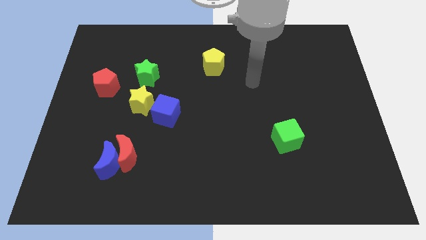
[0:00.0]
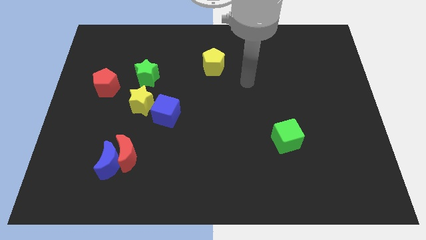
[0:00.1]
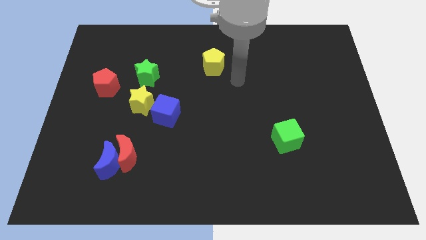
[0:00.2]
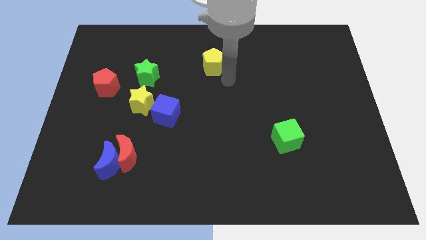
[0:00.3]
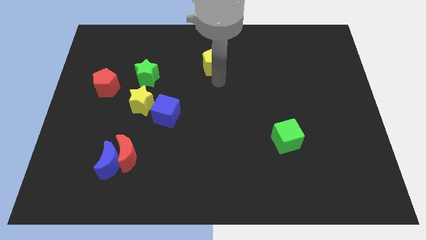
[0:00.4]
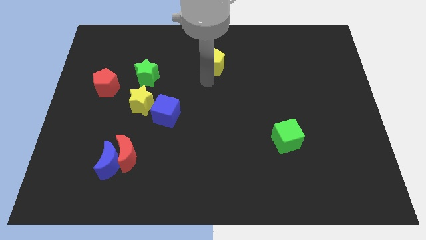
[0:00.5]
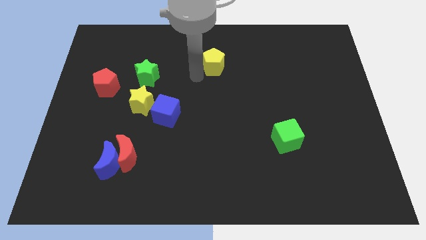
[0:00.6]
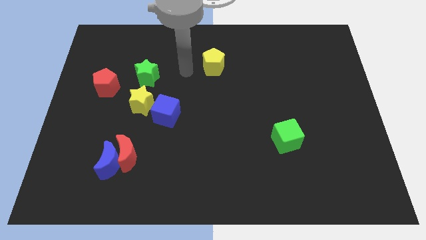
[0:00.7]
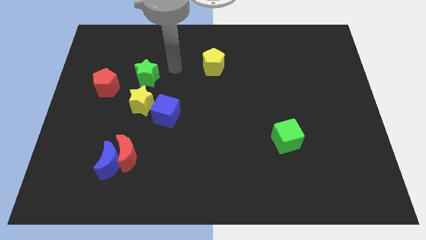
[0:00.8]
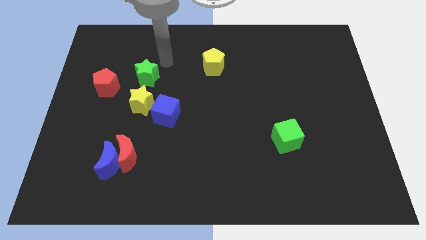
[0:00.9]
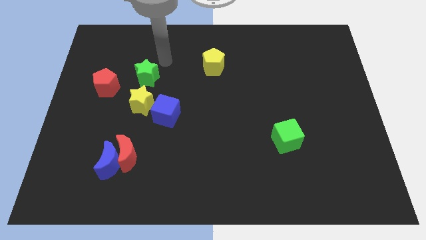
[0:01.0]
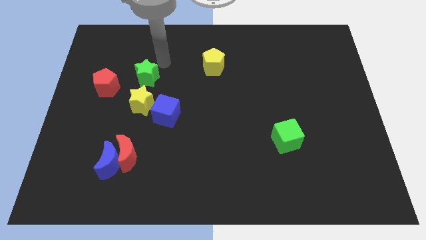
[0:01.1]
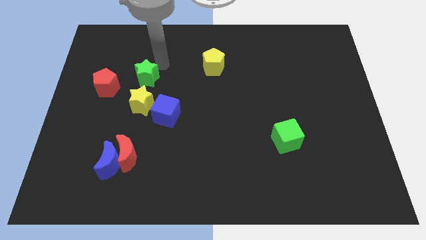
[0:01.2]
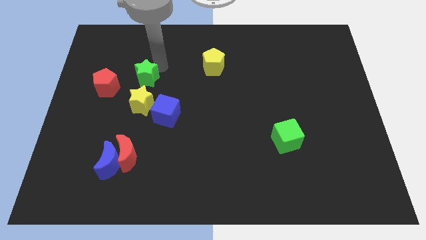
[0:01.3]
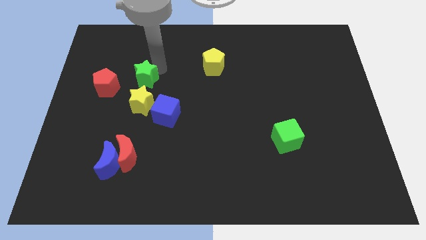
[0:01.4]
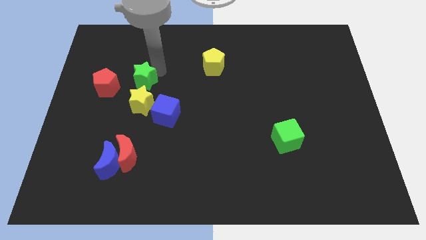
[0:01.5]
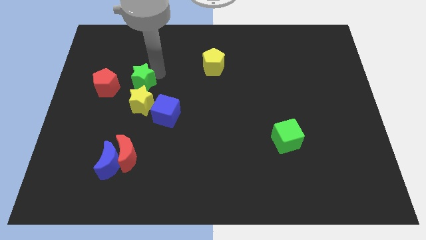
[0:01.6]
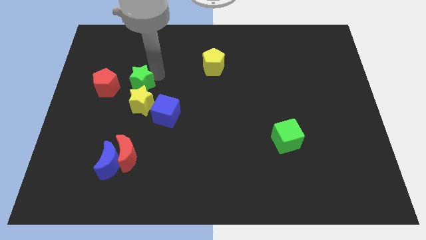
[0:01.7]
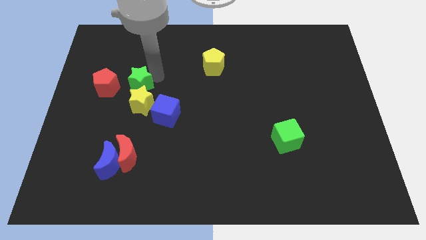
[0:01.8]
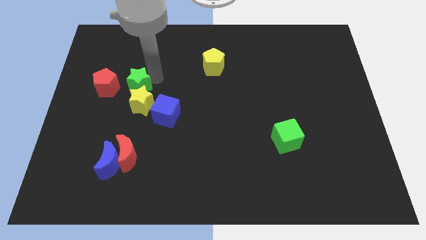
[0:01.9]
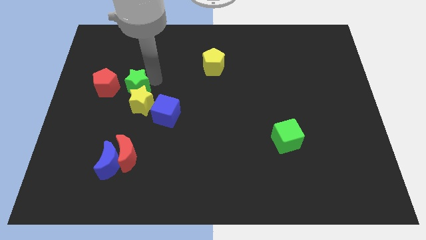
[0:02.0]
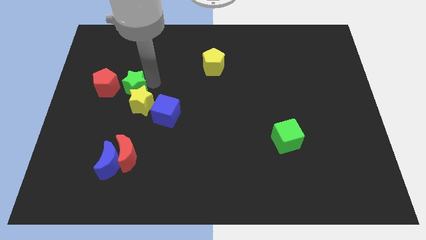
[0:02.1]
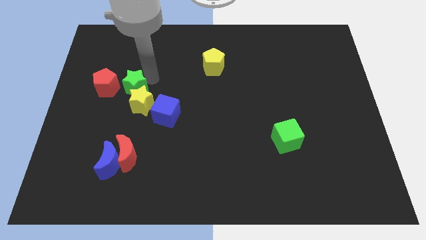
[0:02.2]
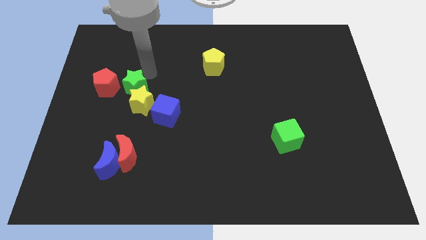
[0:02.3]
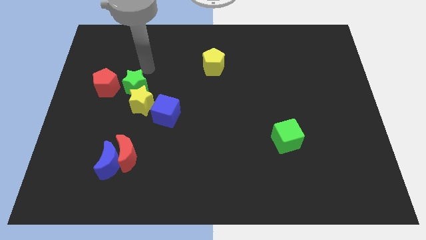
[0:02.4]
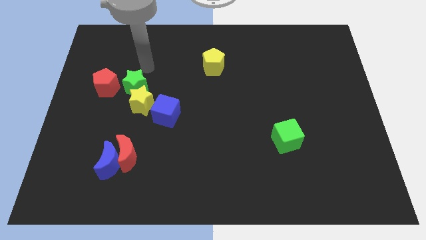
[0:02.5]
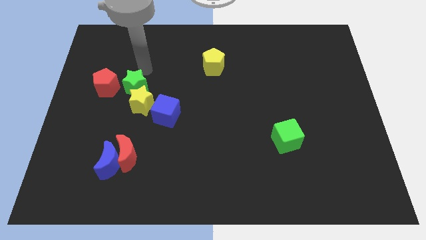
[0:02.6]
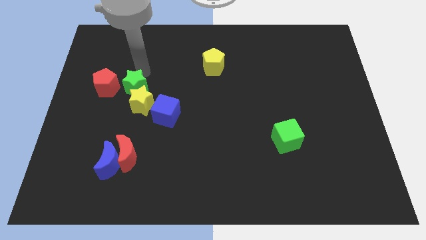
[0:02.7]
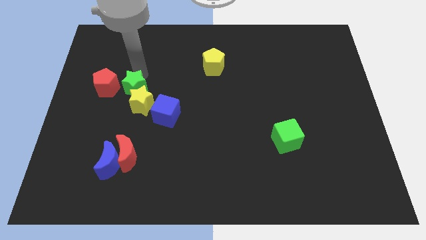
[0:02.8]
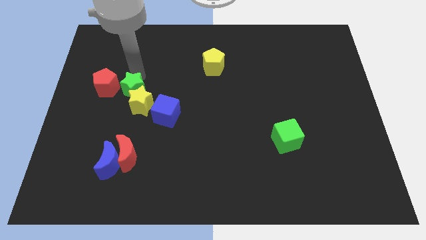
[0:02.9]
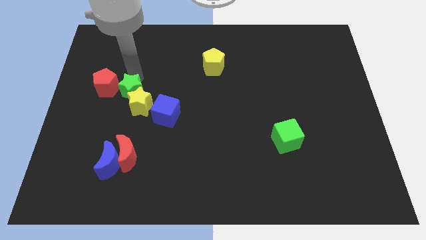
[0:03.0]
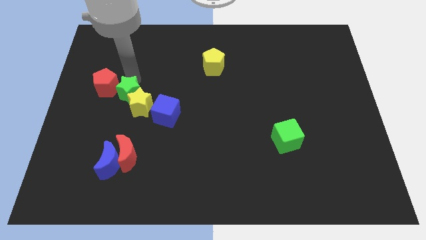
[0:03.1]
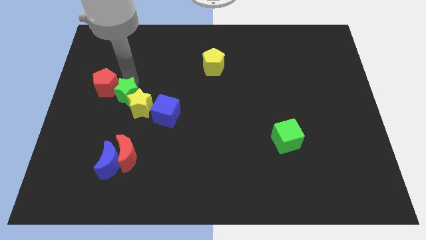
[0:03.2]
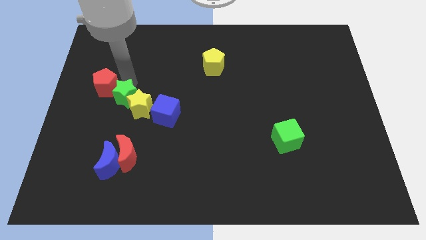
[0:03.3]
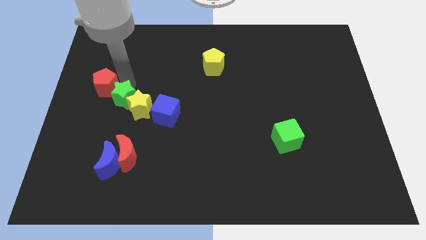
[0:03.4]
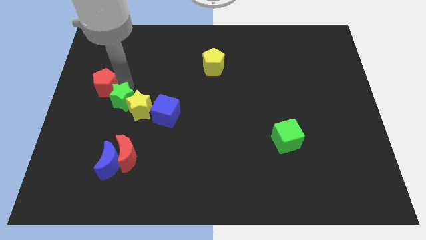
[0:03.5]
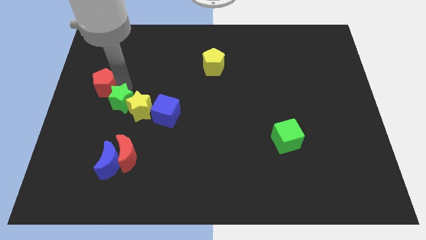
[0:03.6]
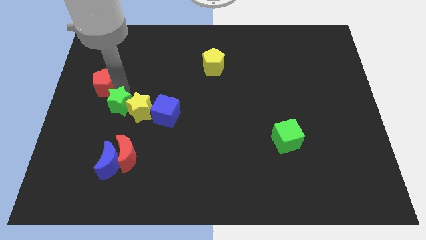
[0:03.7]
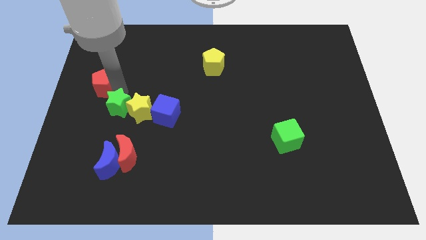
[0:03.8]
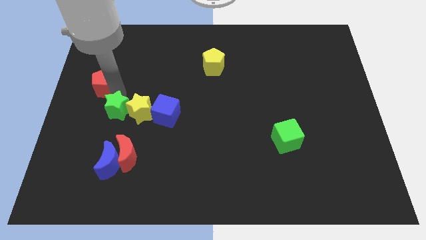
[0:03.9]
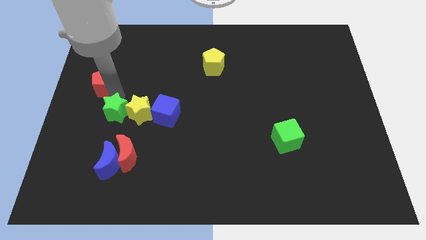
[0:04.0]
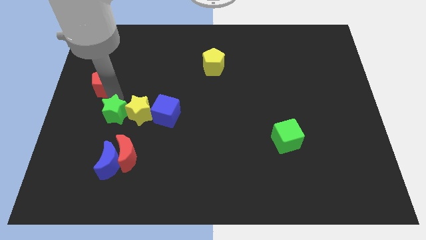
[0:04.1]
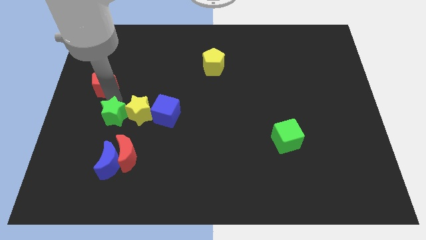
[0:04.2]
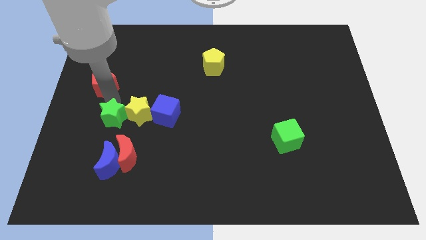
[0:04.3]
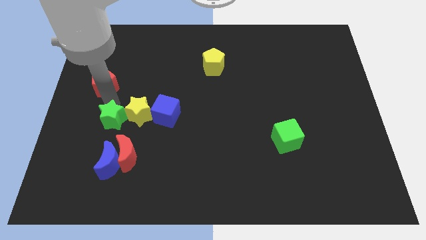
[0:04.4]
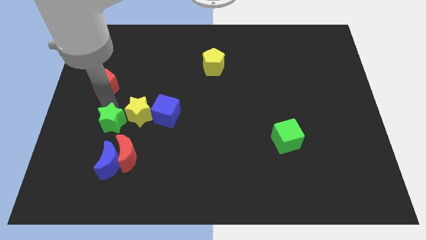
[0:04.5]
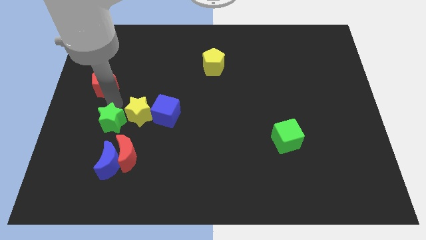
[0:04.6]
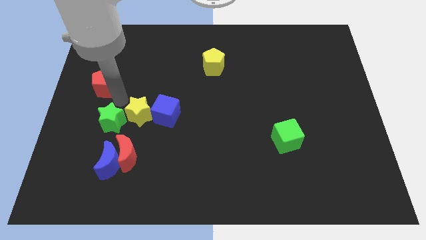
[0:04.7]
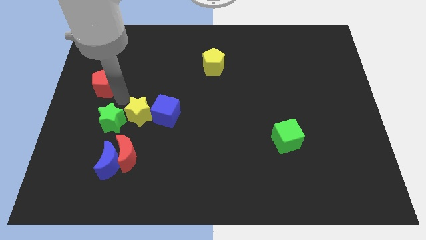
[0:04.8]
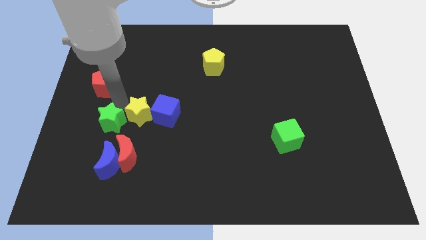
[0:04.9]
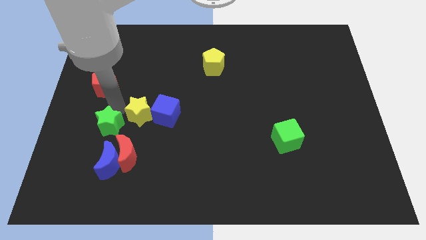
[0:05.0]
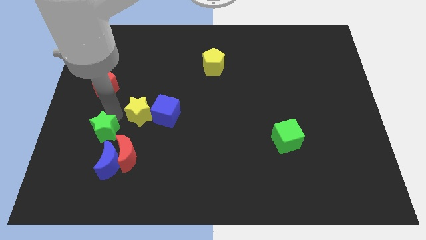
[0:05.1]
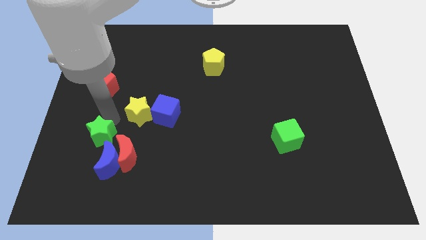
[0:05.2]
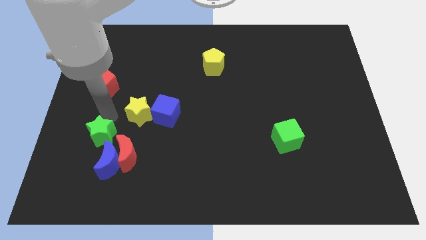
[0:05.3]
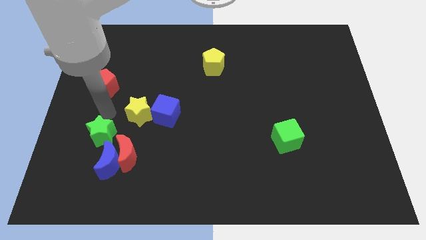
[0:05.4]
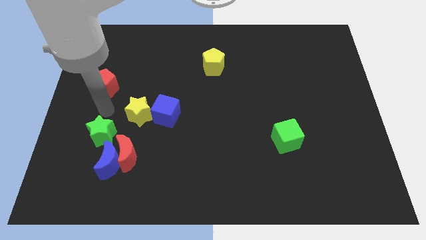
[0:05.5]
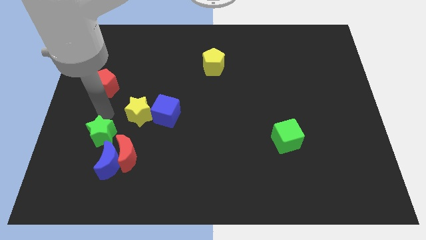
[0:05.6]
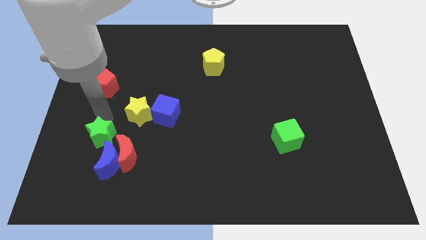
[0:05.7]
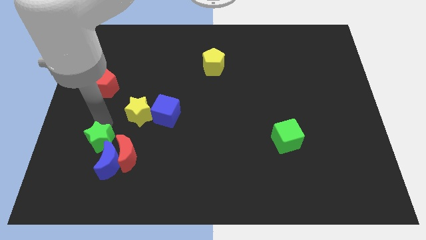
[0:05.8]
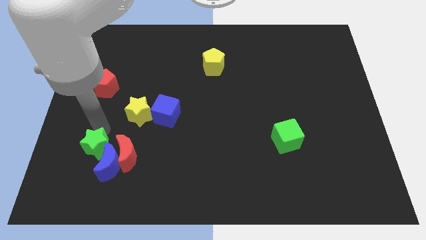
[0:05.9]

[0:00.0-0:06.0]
put the green star to the blue moon
